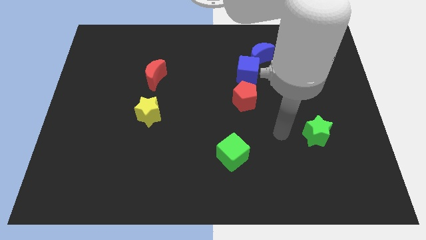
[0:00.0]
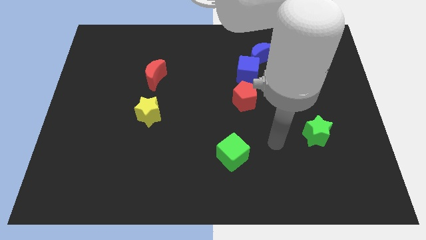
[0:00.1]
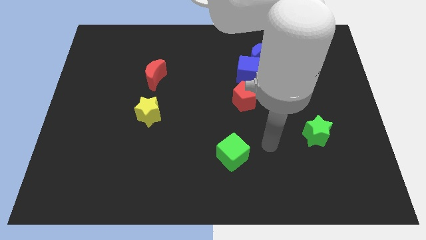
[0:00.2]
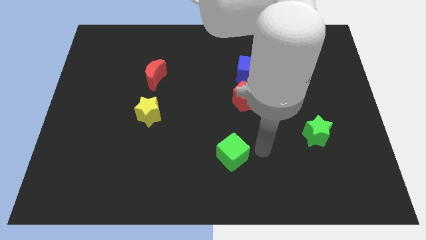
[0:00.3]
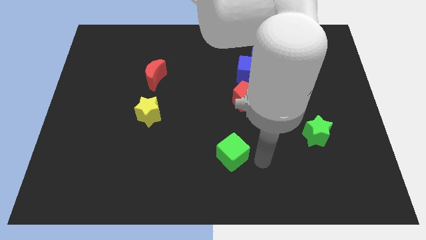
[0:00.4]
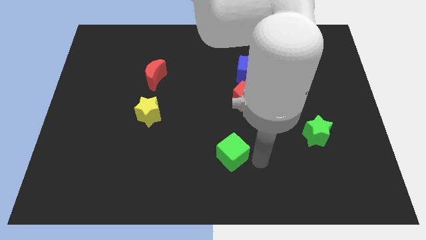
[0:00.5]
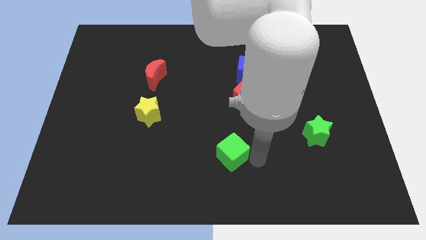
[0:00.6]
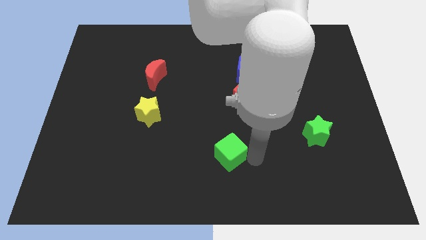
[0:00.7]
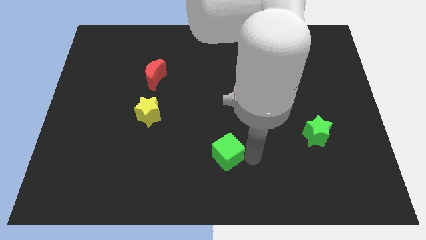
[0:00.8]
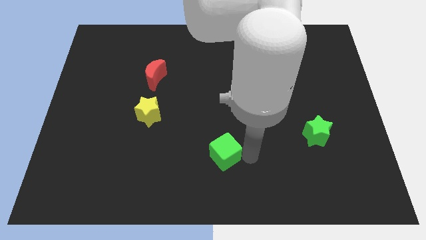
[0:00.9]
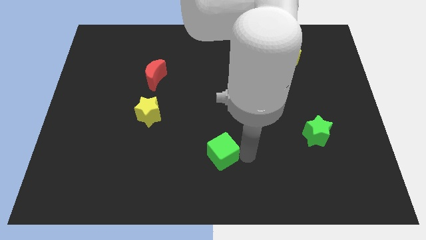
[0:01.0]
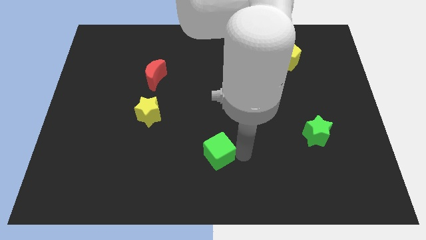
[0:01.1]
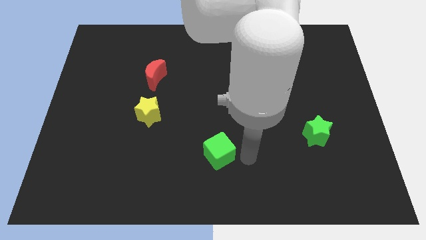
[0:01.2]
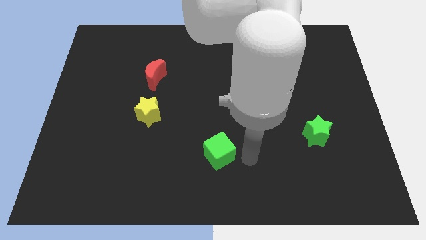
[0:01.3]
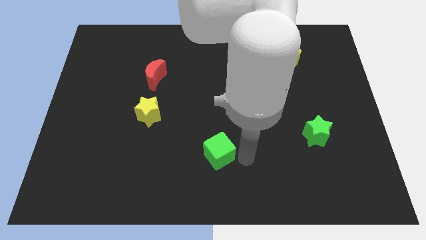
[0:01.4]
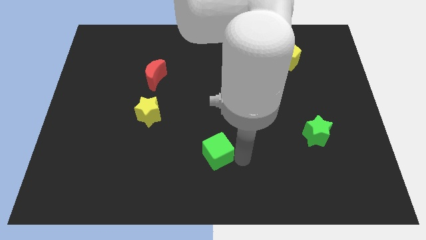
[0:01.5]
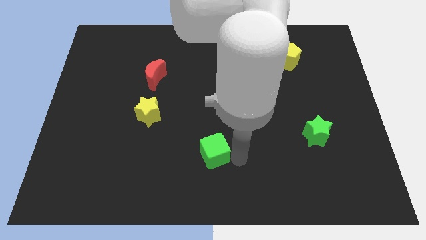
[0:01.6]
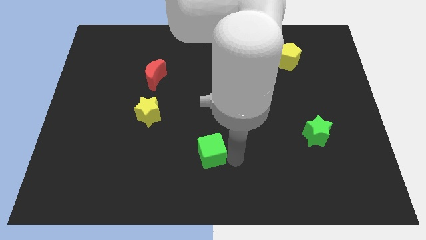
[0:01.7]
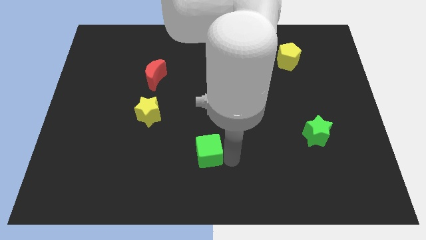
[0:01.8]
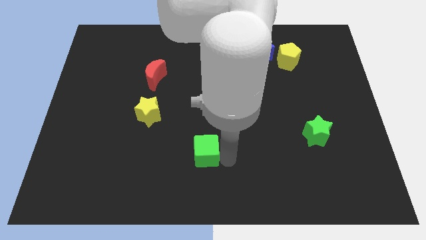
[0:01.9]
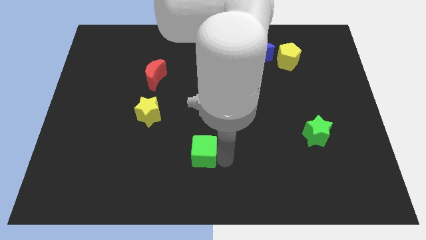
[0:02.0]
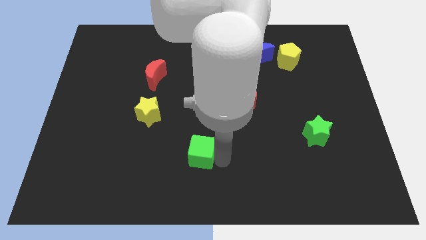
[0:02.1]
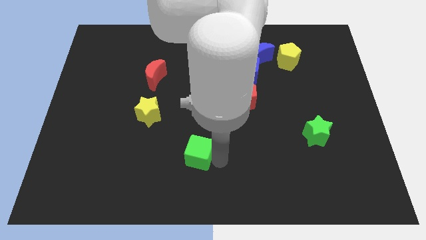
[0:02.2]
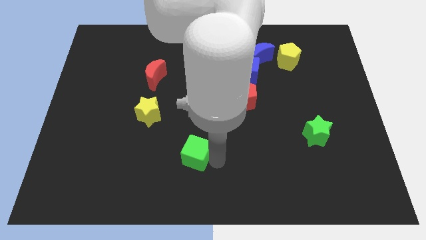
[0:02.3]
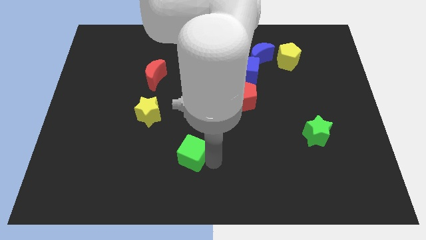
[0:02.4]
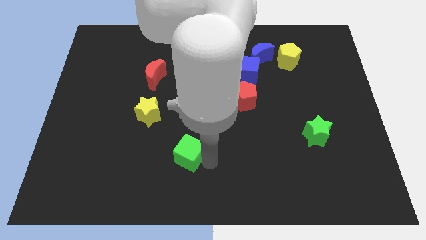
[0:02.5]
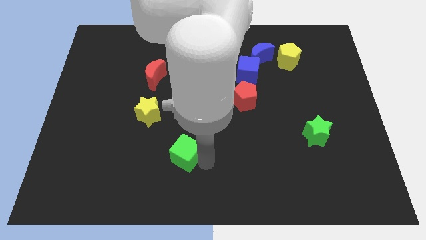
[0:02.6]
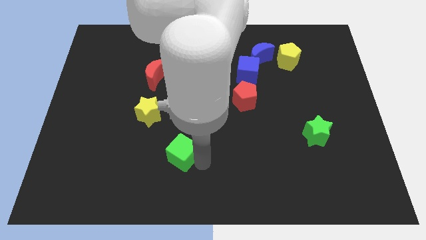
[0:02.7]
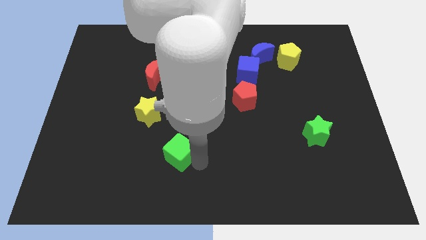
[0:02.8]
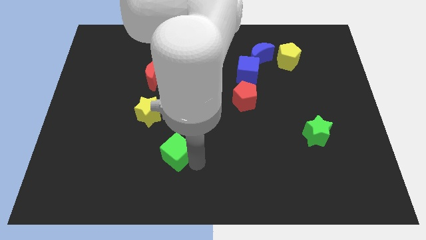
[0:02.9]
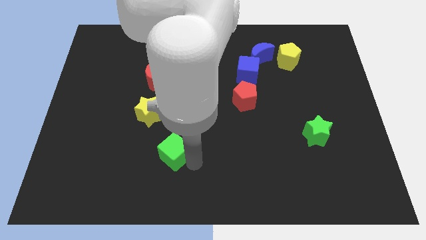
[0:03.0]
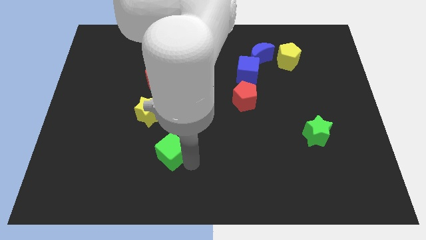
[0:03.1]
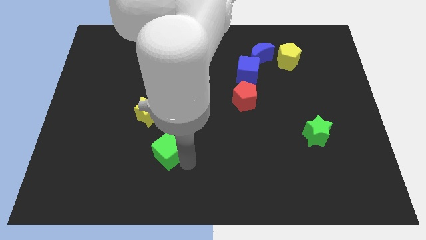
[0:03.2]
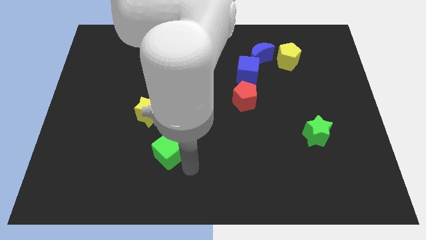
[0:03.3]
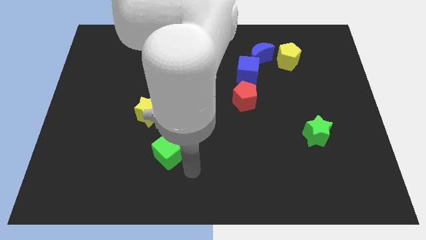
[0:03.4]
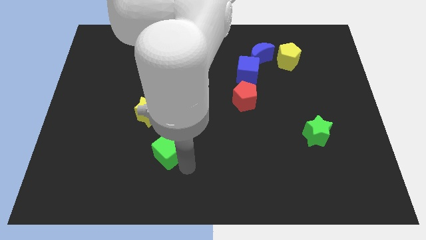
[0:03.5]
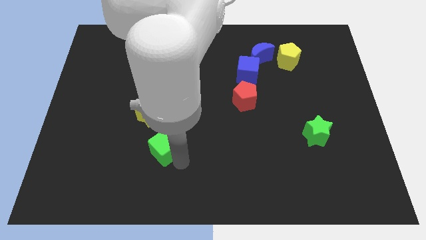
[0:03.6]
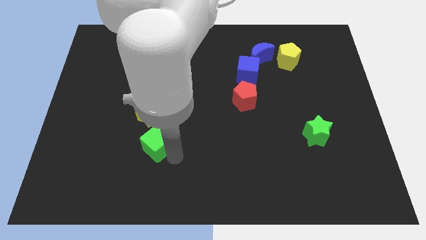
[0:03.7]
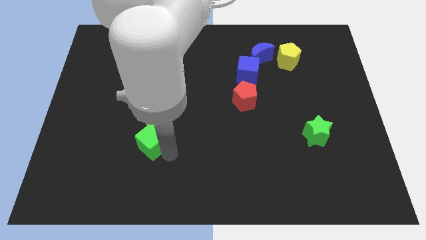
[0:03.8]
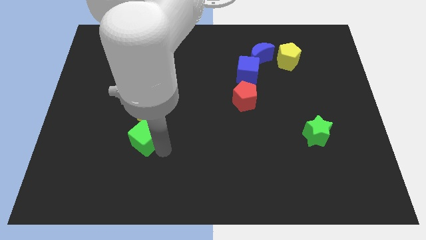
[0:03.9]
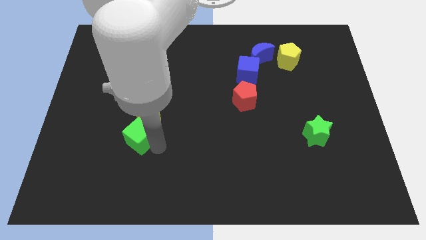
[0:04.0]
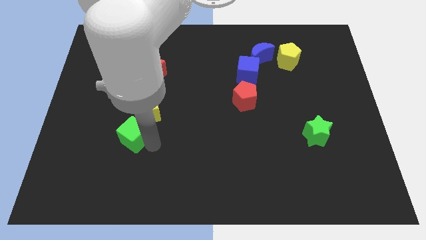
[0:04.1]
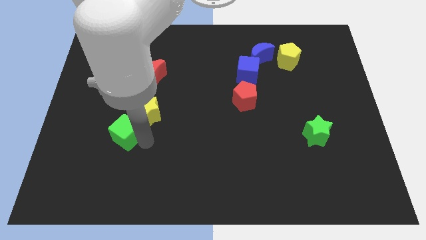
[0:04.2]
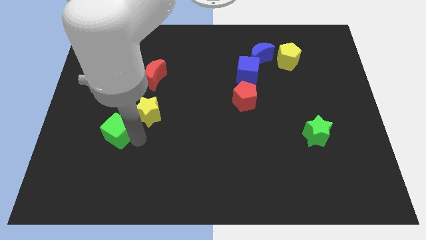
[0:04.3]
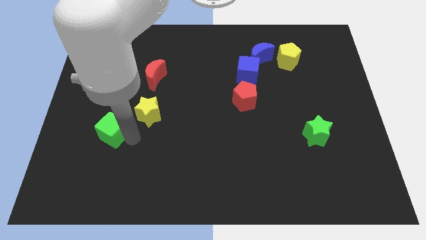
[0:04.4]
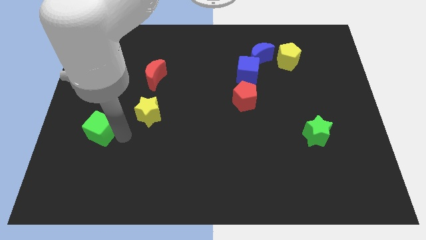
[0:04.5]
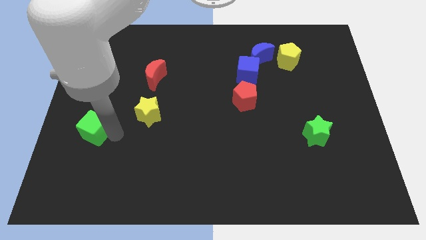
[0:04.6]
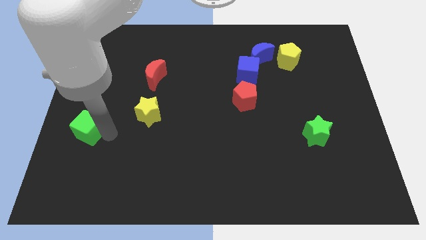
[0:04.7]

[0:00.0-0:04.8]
put the green cube to the center left

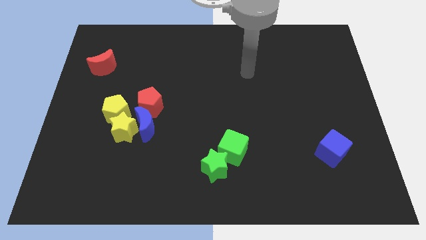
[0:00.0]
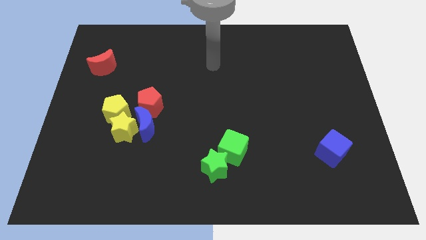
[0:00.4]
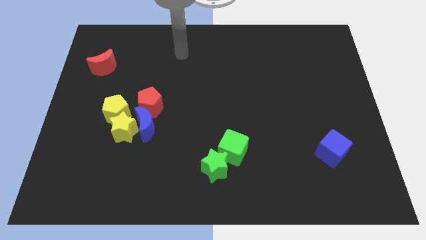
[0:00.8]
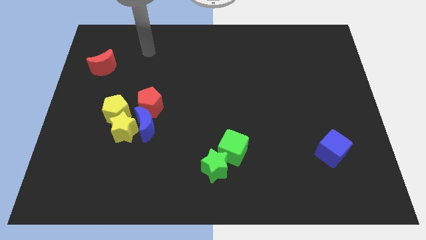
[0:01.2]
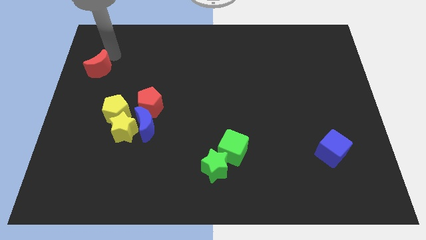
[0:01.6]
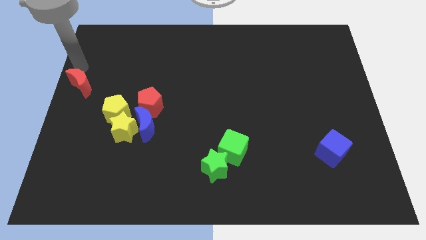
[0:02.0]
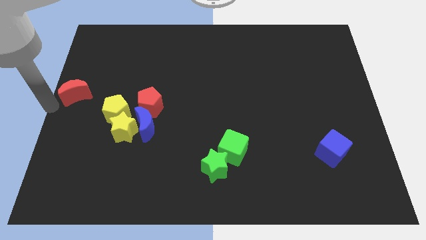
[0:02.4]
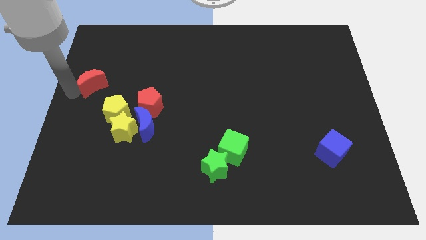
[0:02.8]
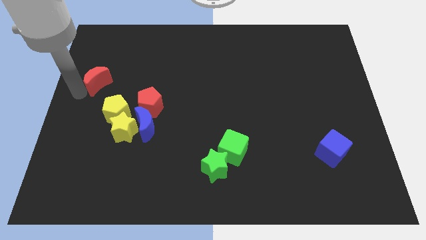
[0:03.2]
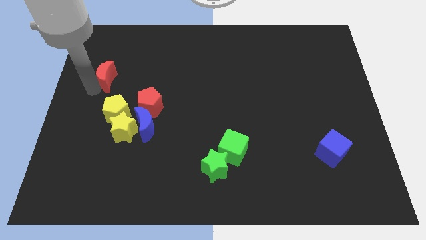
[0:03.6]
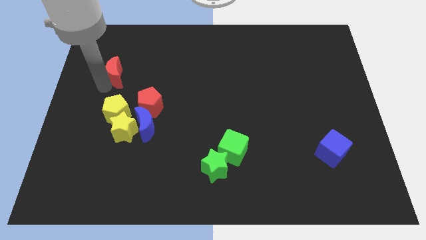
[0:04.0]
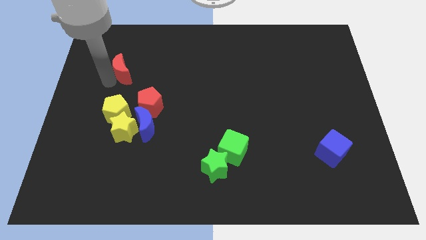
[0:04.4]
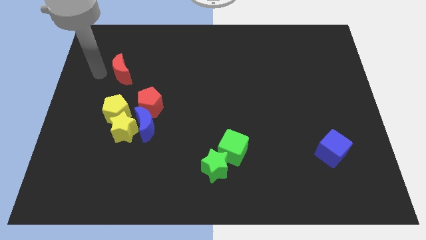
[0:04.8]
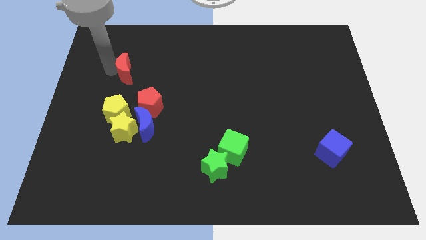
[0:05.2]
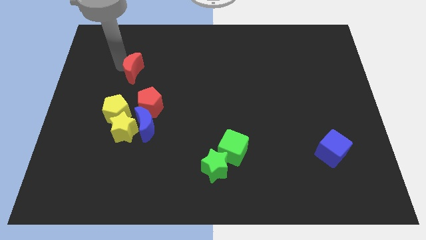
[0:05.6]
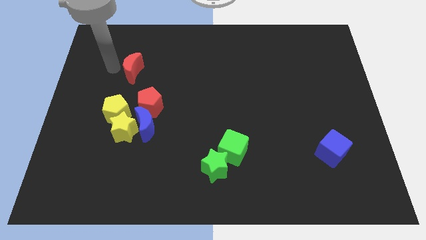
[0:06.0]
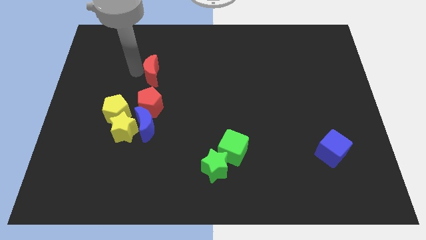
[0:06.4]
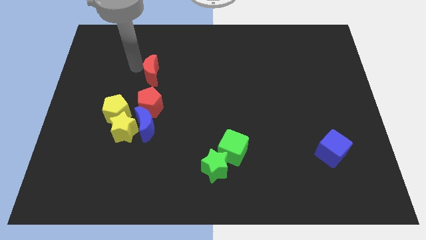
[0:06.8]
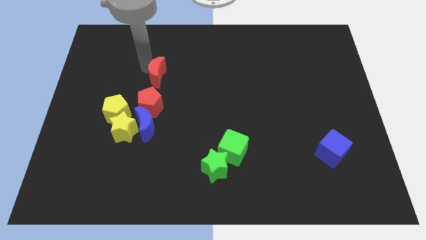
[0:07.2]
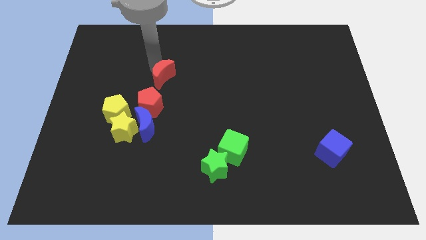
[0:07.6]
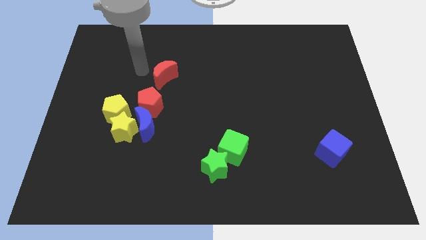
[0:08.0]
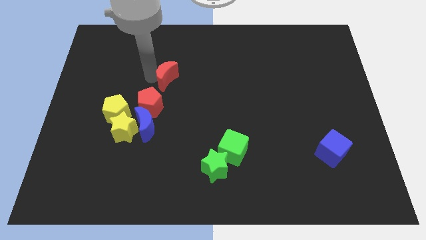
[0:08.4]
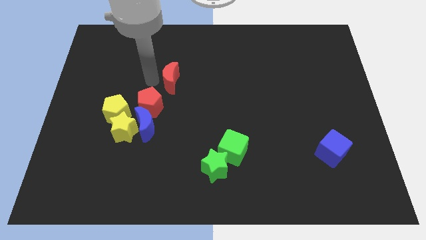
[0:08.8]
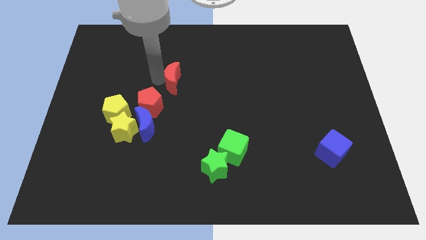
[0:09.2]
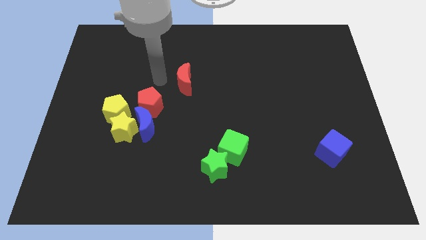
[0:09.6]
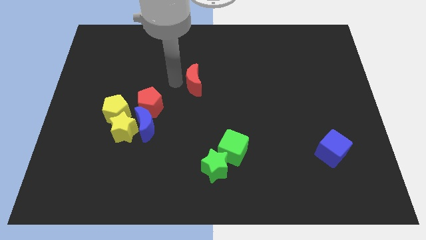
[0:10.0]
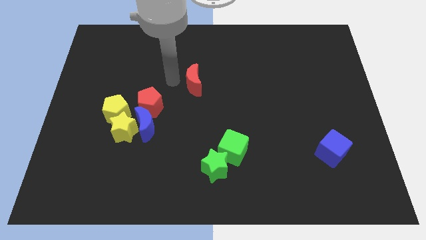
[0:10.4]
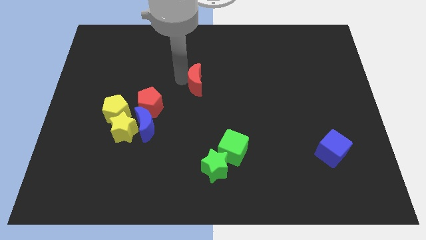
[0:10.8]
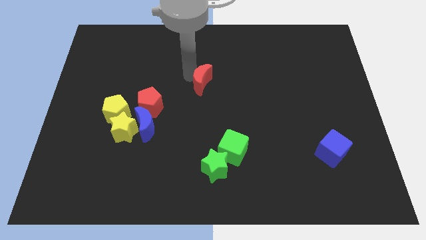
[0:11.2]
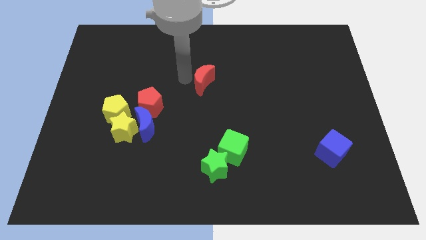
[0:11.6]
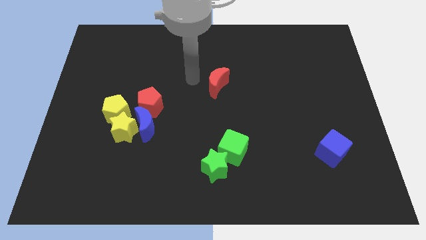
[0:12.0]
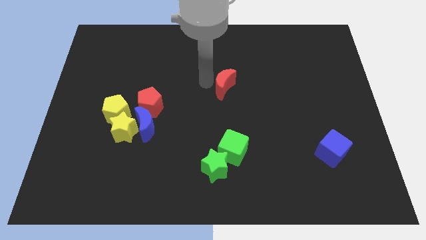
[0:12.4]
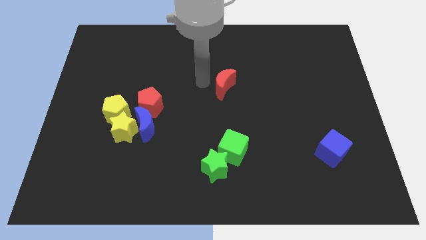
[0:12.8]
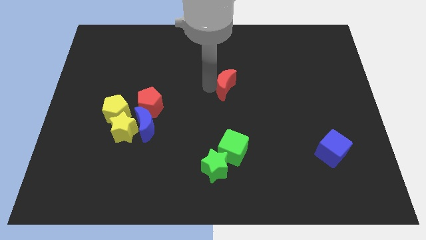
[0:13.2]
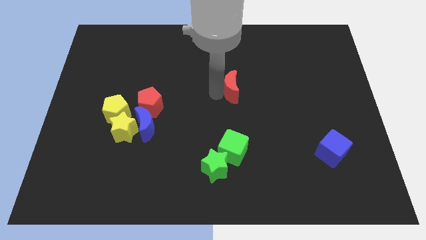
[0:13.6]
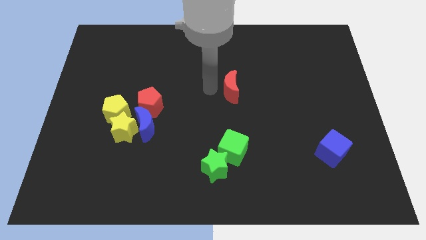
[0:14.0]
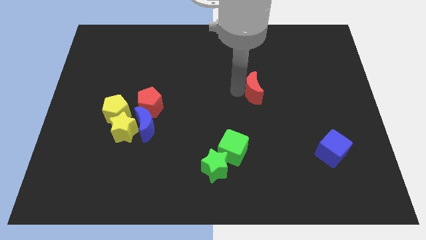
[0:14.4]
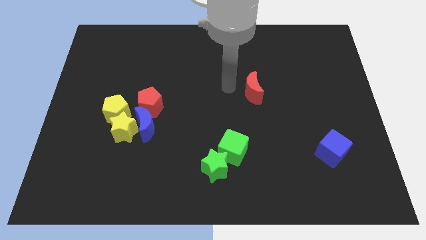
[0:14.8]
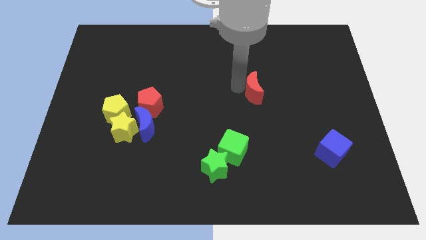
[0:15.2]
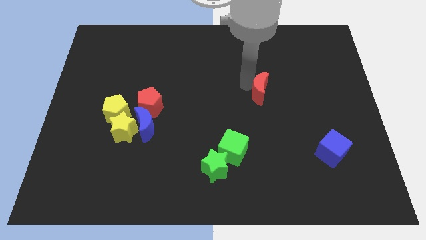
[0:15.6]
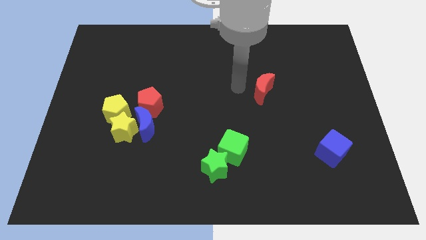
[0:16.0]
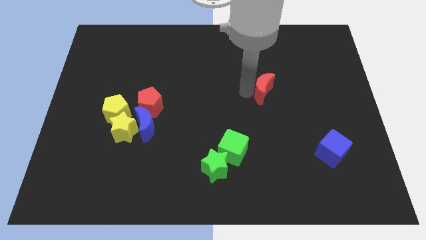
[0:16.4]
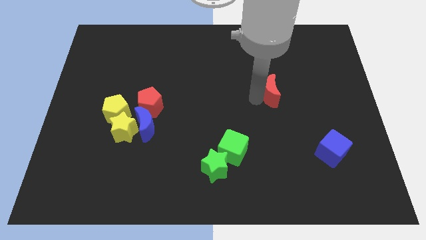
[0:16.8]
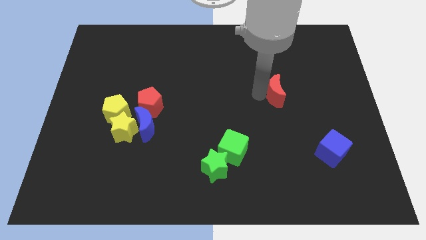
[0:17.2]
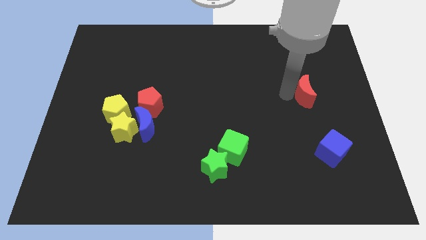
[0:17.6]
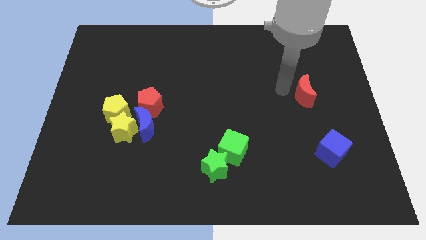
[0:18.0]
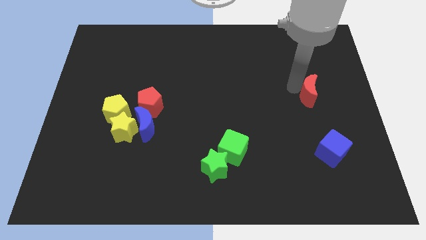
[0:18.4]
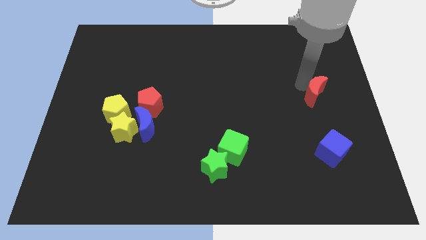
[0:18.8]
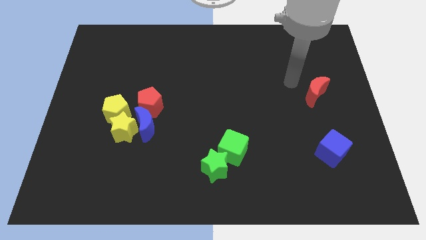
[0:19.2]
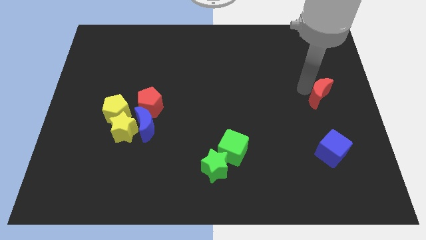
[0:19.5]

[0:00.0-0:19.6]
put the red moon to the center right
